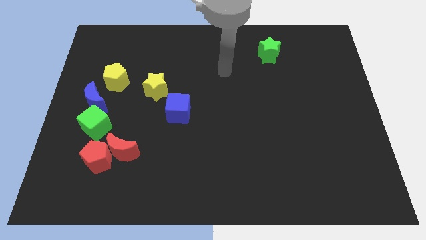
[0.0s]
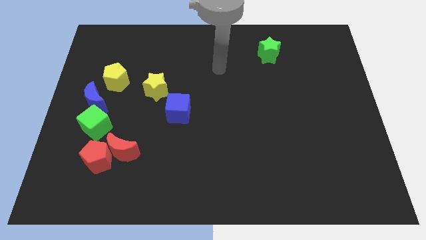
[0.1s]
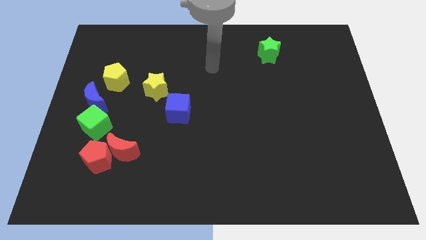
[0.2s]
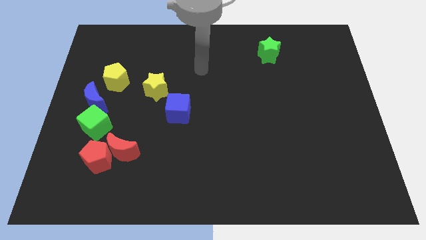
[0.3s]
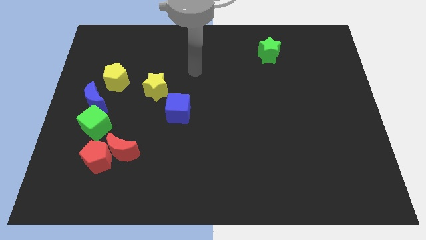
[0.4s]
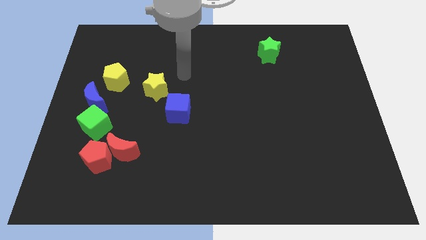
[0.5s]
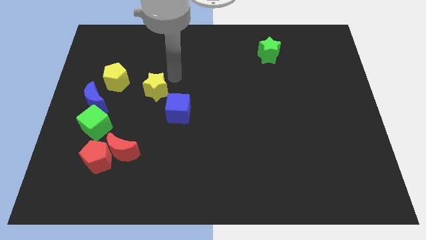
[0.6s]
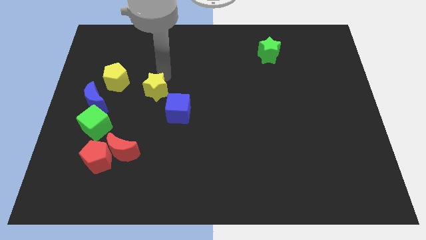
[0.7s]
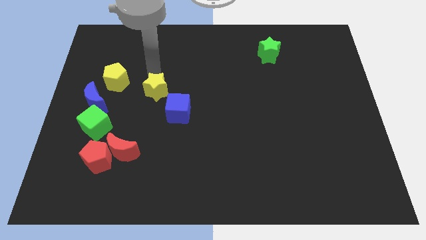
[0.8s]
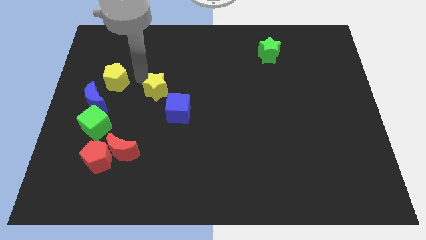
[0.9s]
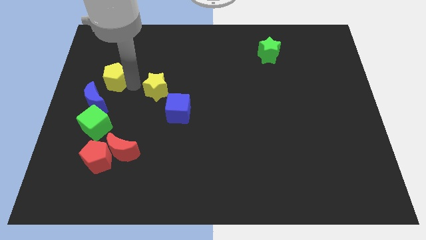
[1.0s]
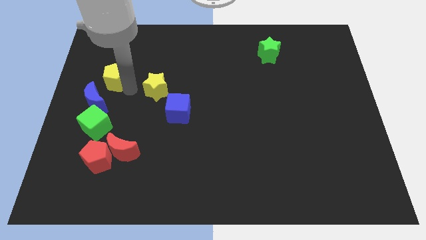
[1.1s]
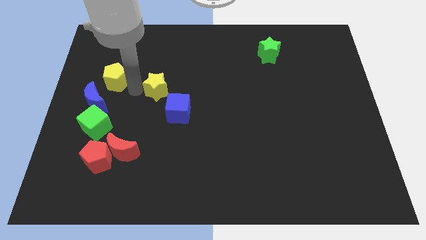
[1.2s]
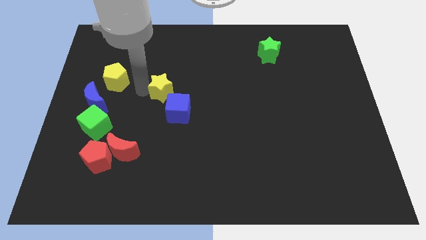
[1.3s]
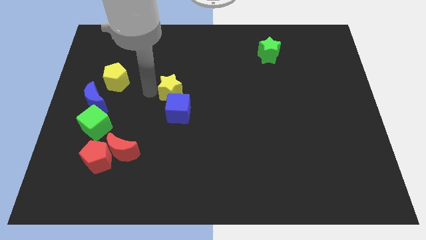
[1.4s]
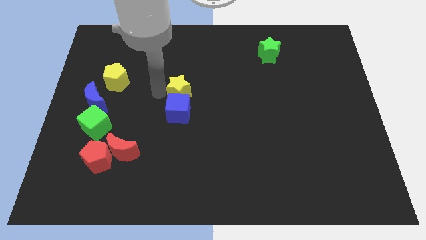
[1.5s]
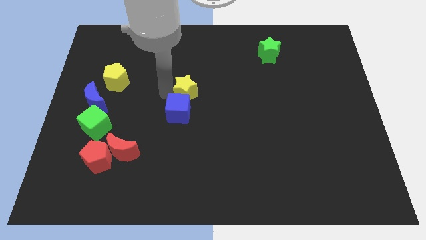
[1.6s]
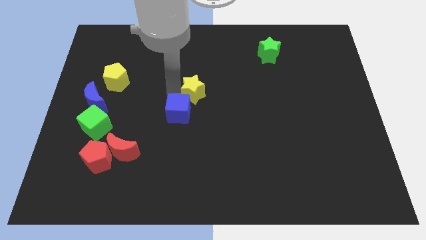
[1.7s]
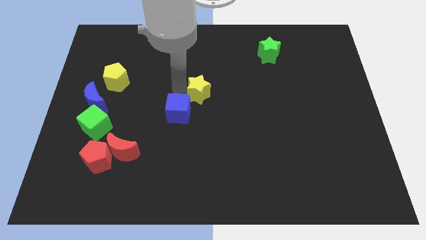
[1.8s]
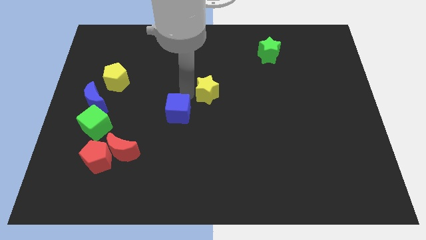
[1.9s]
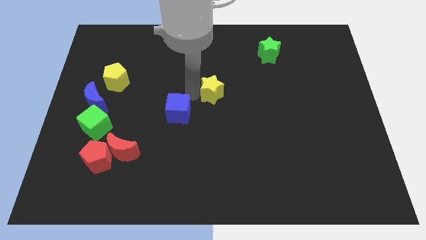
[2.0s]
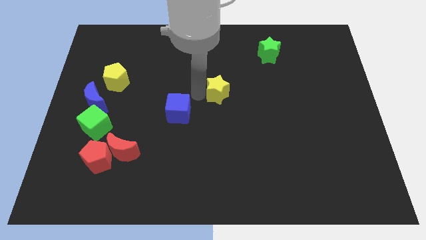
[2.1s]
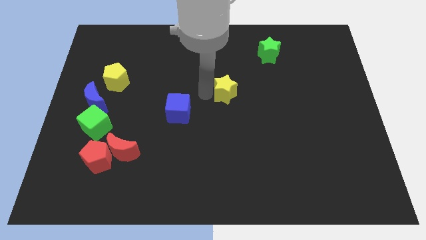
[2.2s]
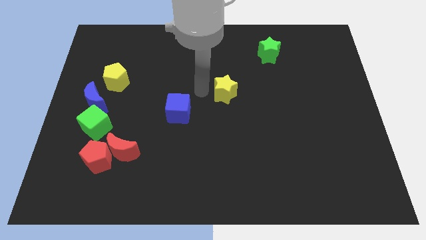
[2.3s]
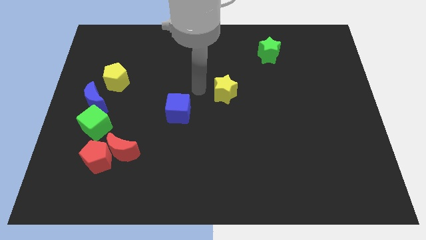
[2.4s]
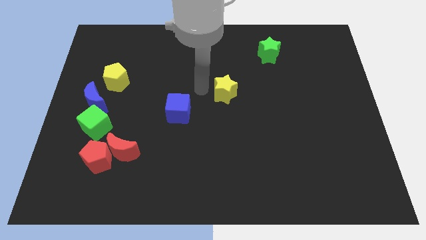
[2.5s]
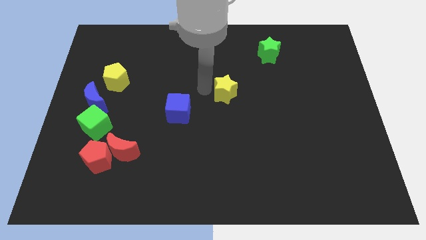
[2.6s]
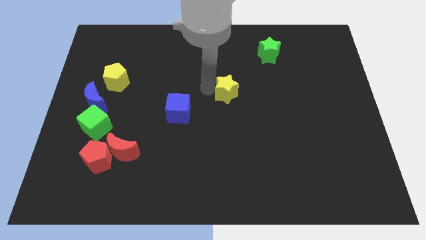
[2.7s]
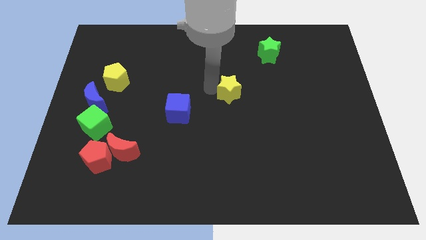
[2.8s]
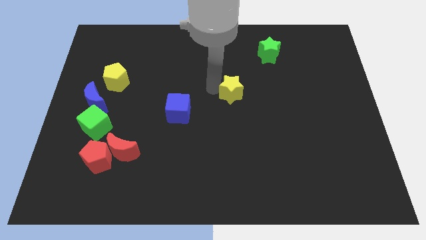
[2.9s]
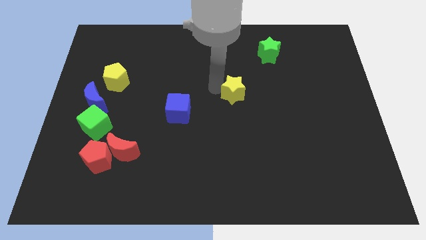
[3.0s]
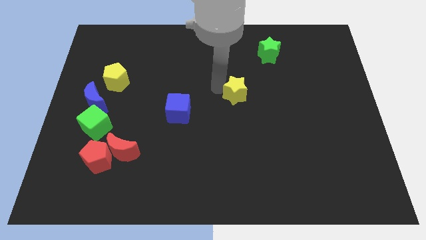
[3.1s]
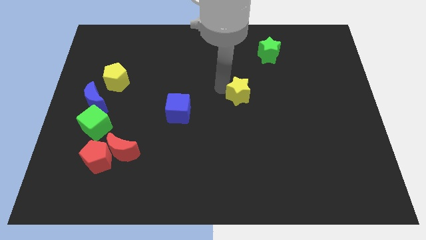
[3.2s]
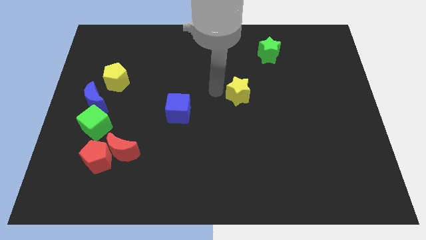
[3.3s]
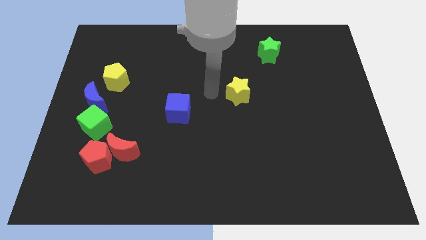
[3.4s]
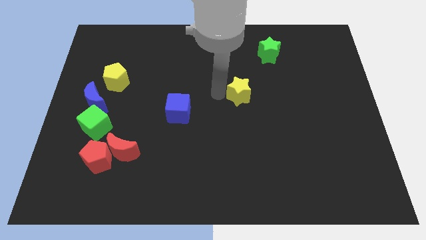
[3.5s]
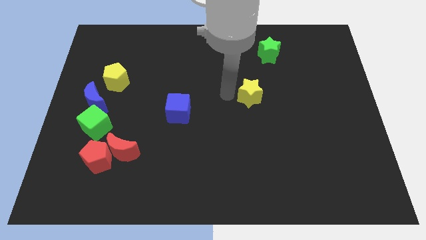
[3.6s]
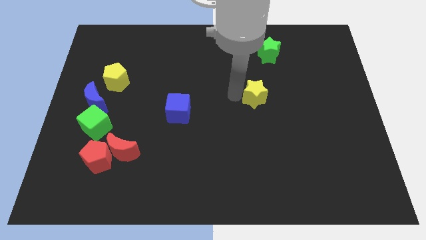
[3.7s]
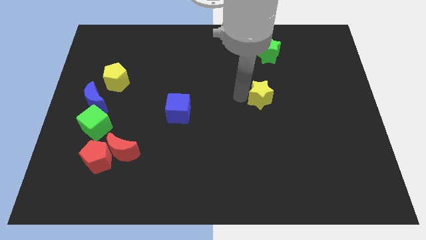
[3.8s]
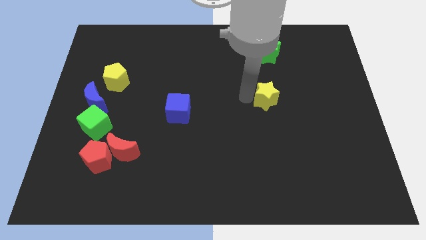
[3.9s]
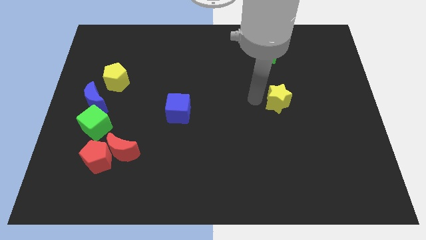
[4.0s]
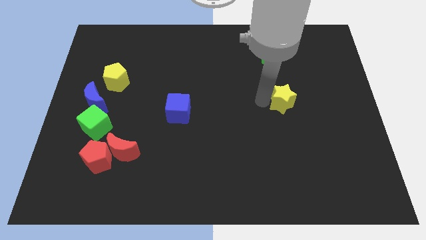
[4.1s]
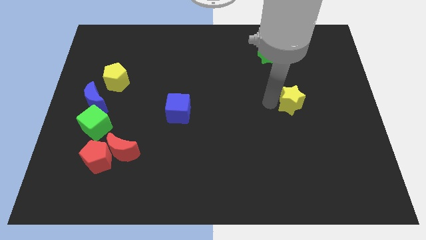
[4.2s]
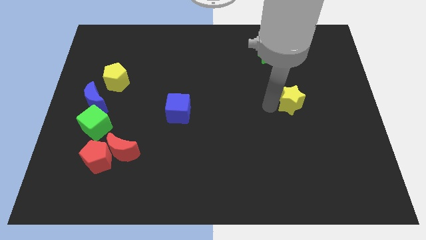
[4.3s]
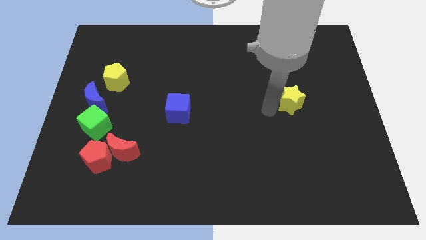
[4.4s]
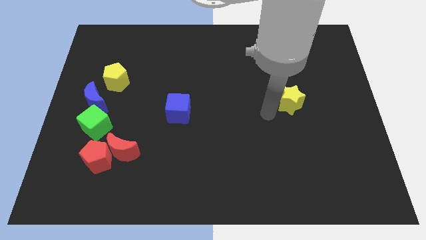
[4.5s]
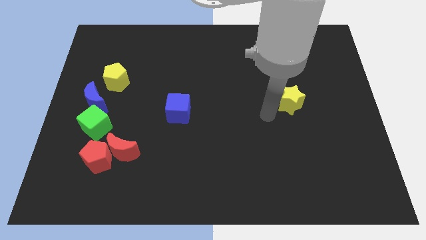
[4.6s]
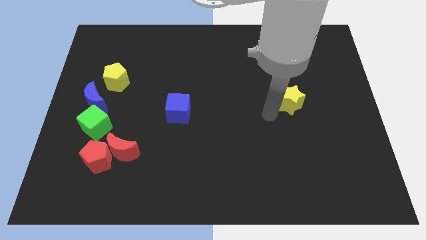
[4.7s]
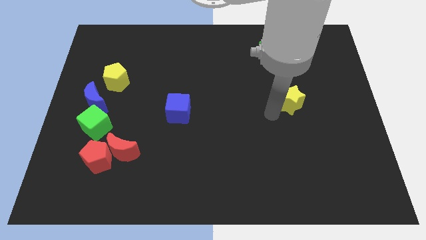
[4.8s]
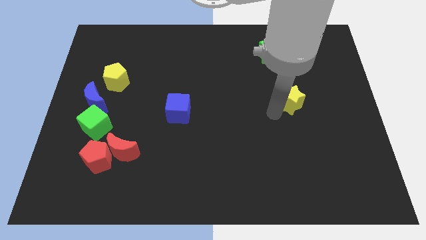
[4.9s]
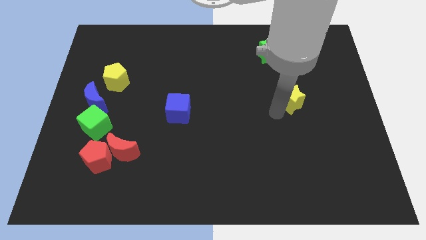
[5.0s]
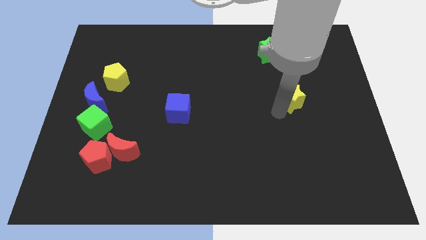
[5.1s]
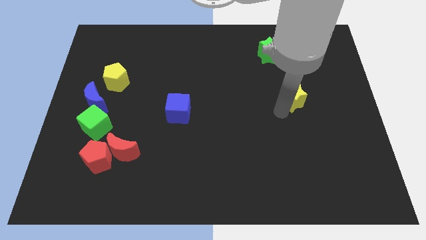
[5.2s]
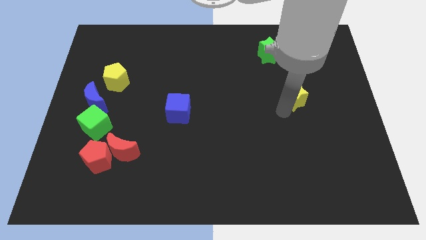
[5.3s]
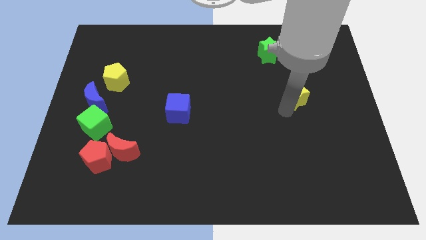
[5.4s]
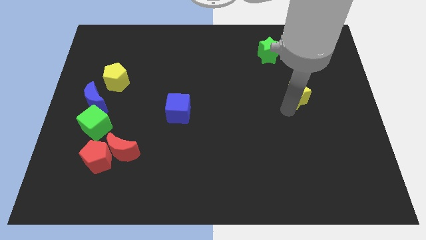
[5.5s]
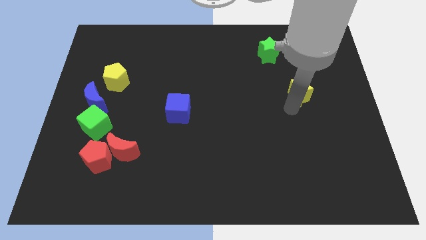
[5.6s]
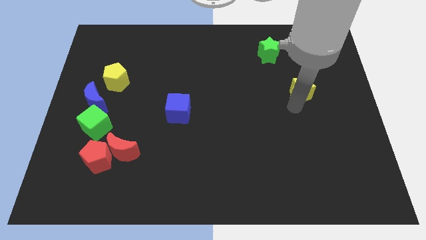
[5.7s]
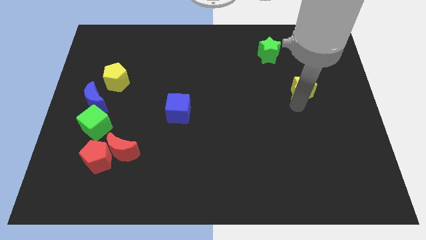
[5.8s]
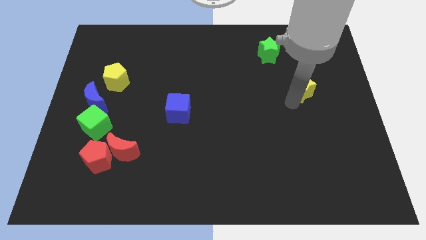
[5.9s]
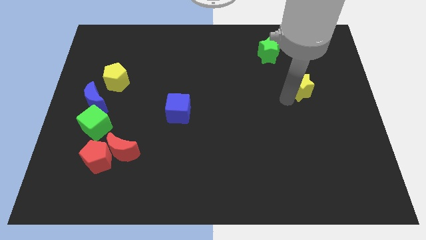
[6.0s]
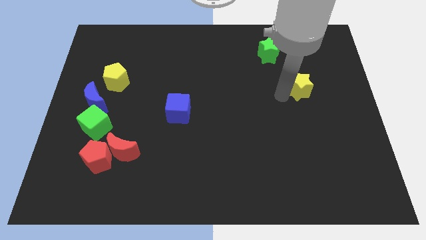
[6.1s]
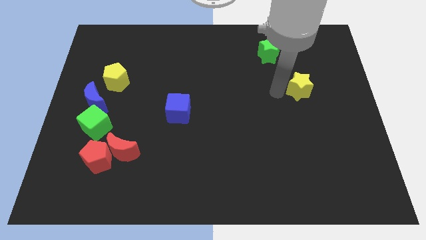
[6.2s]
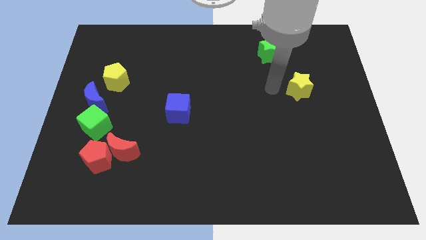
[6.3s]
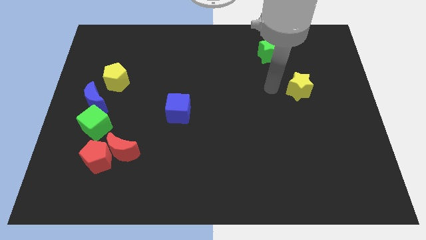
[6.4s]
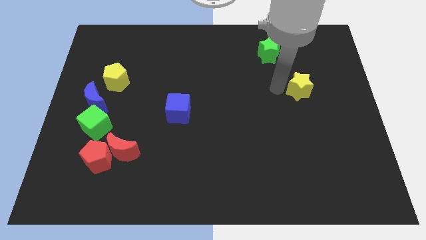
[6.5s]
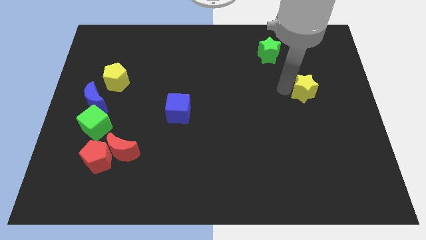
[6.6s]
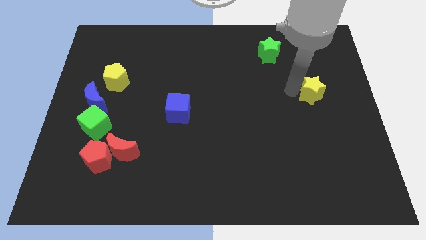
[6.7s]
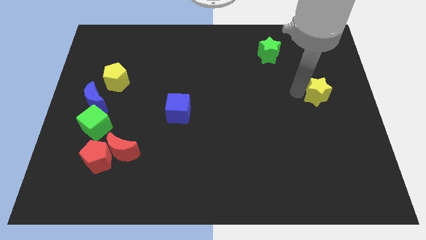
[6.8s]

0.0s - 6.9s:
move the yellow star to the right side

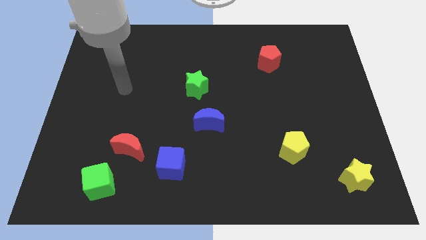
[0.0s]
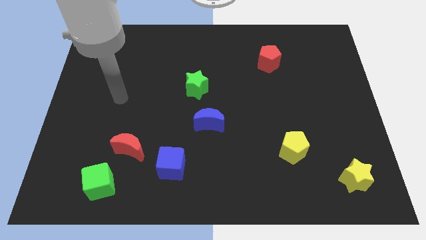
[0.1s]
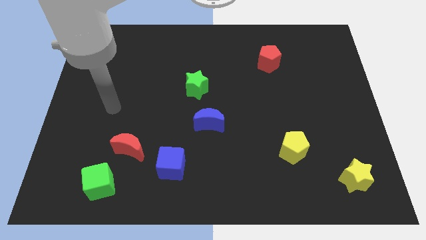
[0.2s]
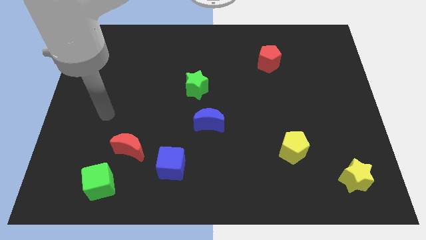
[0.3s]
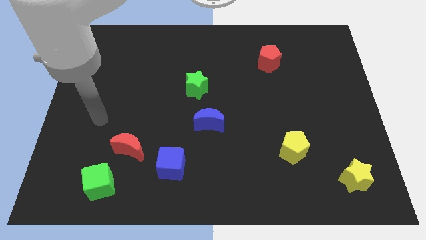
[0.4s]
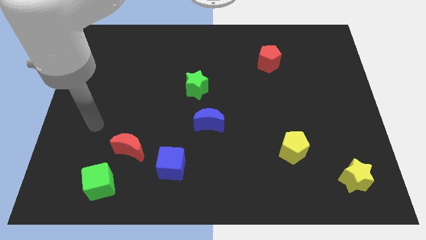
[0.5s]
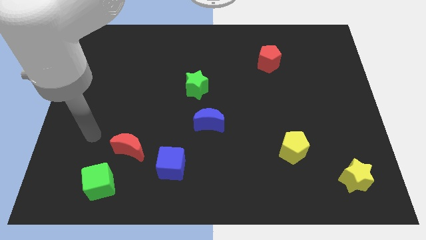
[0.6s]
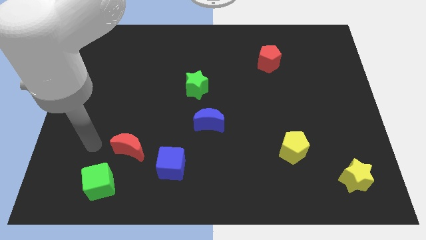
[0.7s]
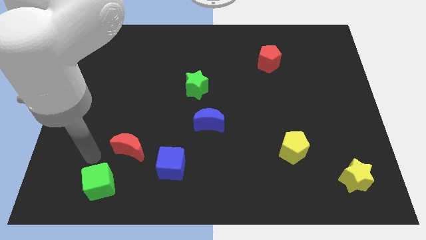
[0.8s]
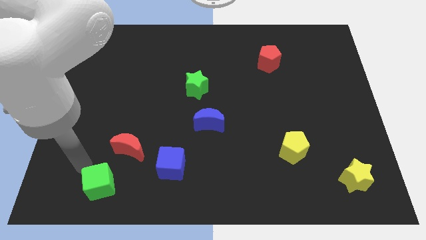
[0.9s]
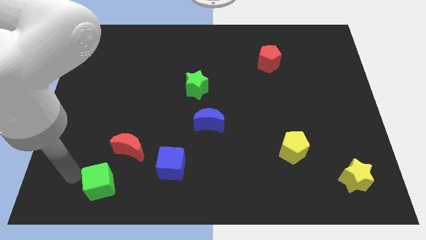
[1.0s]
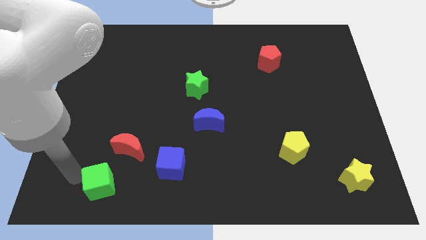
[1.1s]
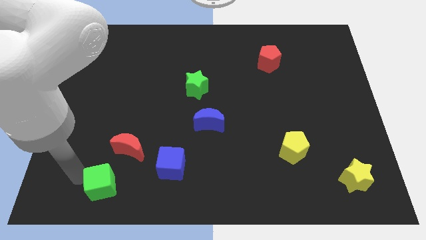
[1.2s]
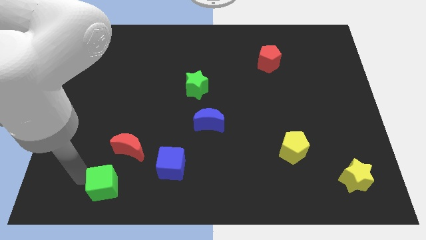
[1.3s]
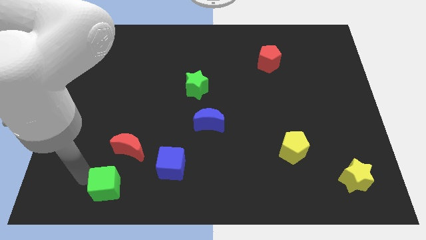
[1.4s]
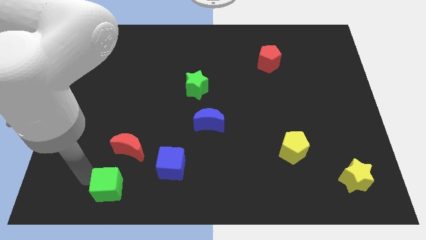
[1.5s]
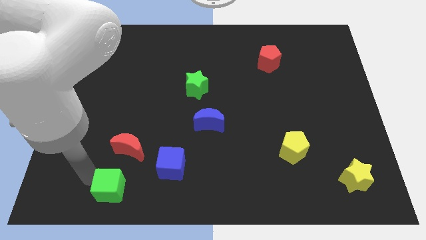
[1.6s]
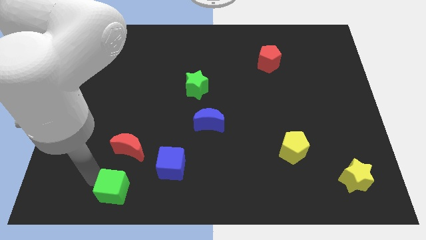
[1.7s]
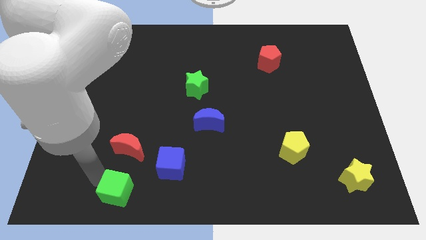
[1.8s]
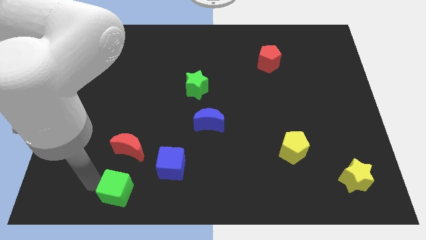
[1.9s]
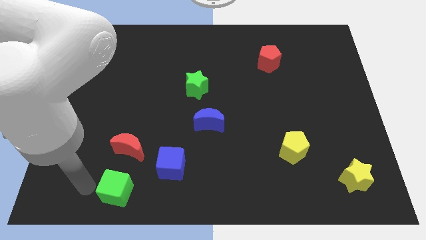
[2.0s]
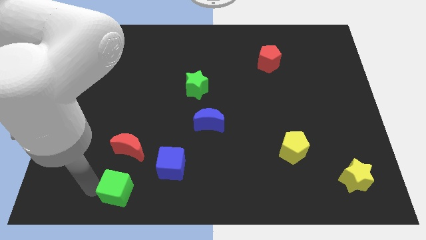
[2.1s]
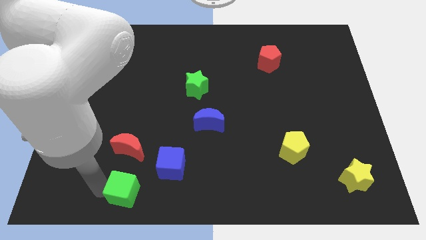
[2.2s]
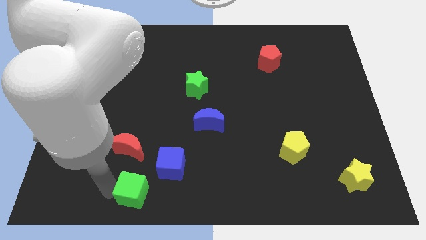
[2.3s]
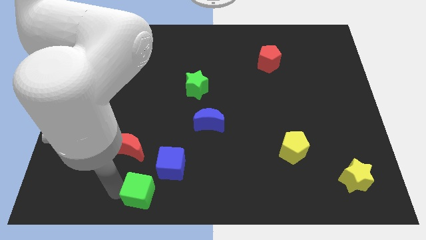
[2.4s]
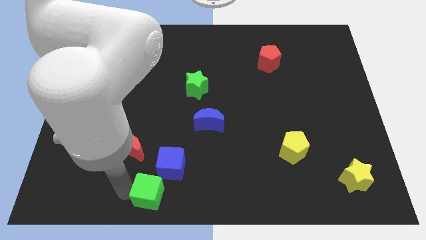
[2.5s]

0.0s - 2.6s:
slide the green cube to the bottom
